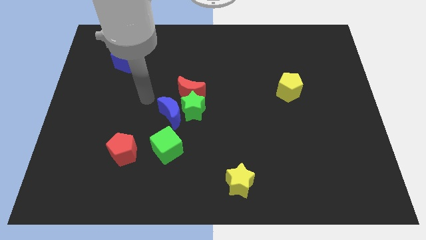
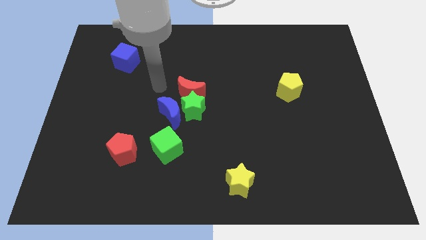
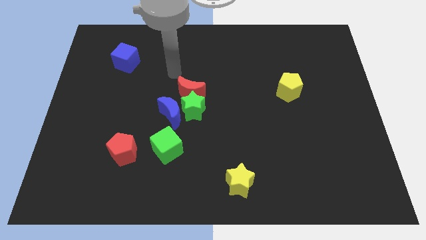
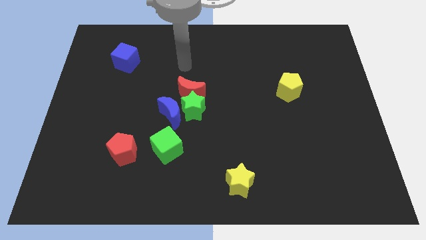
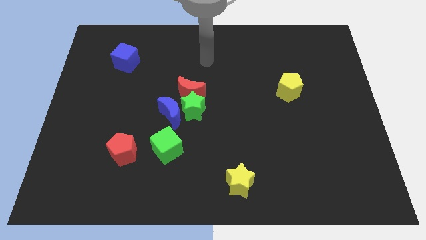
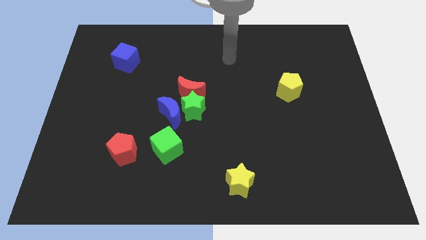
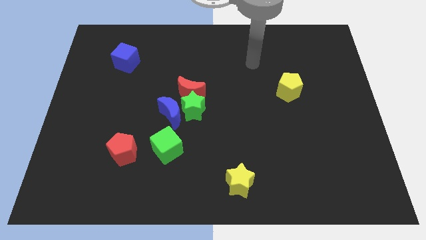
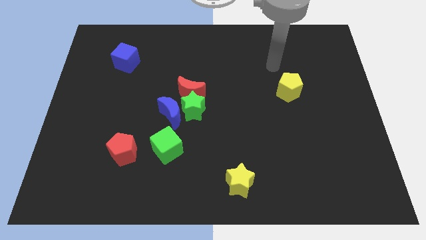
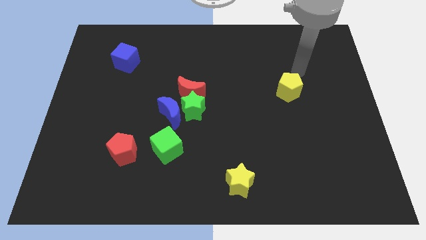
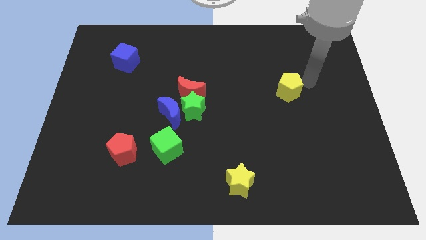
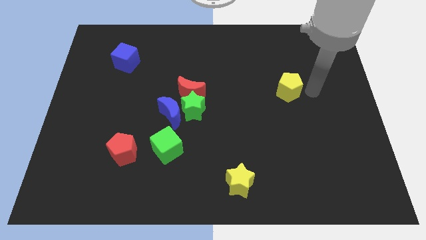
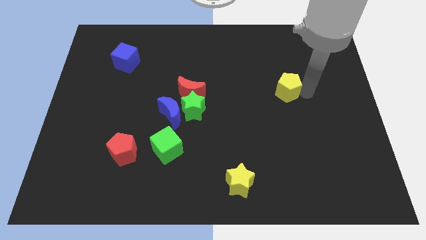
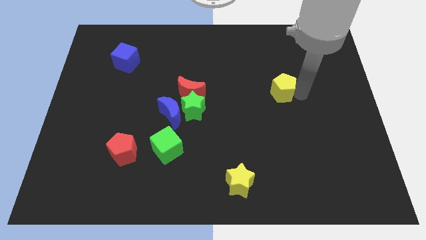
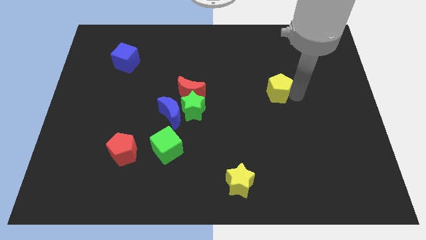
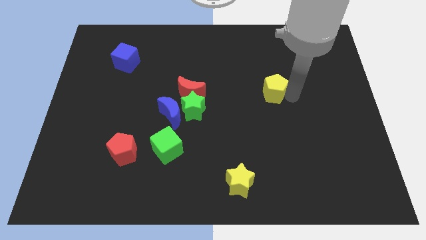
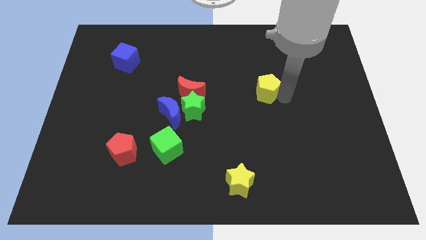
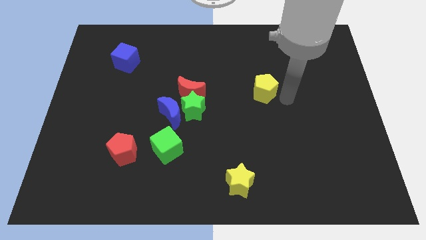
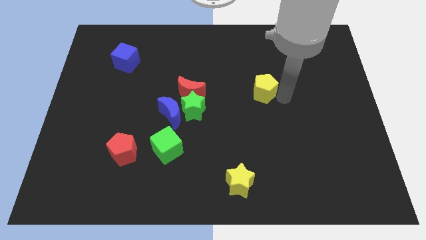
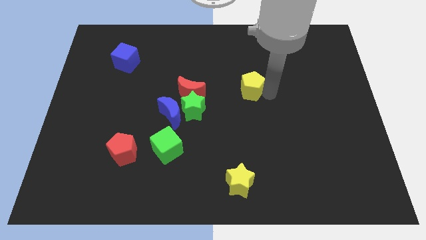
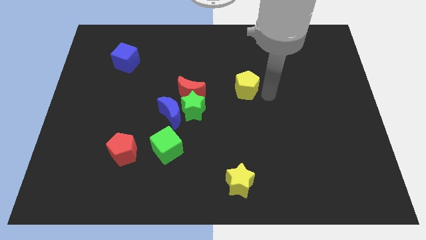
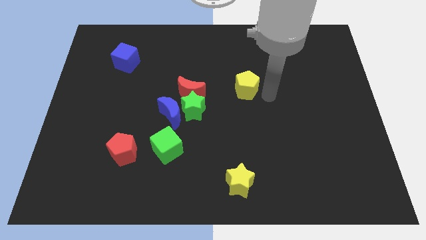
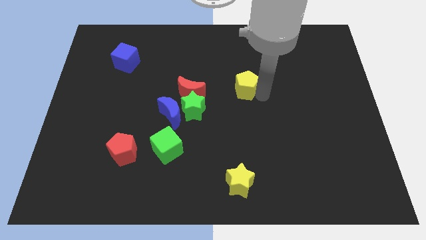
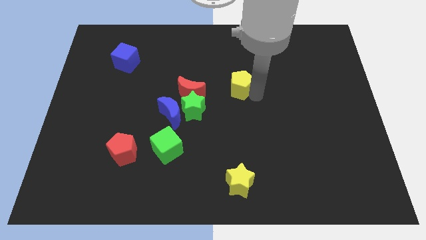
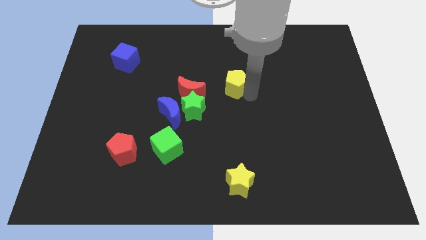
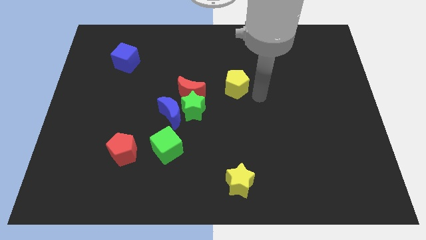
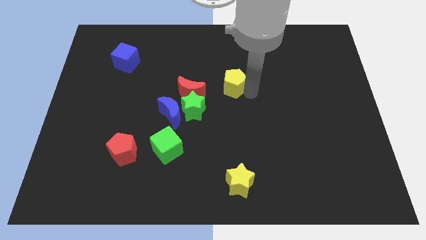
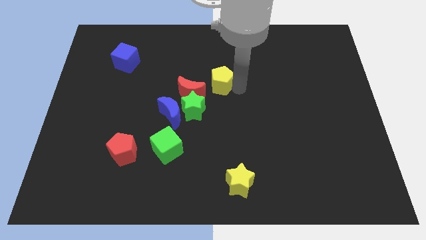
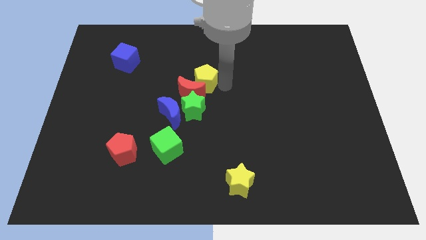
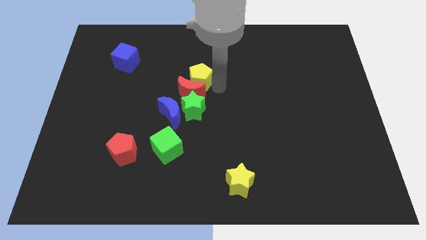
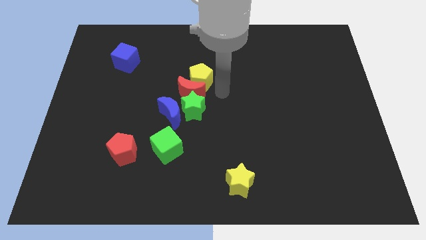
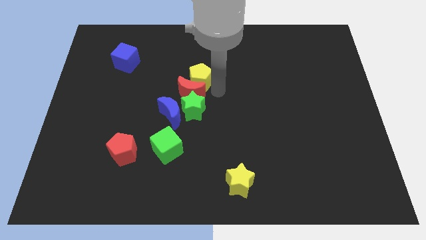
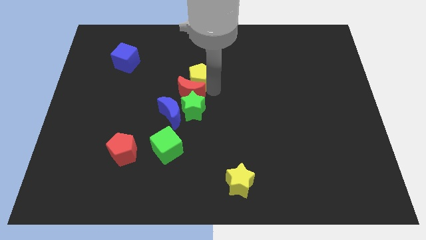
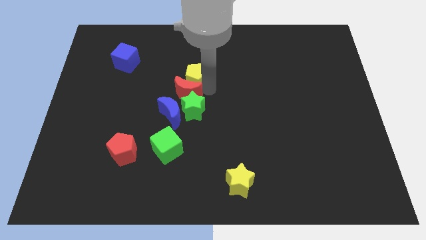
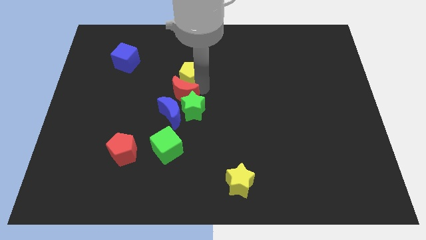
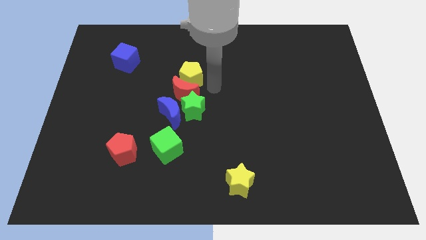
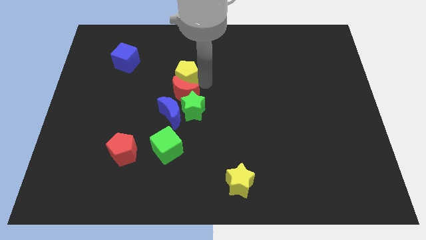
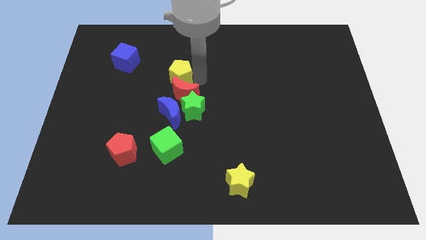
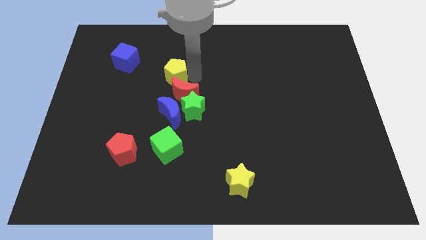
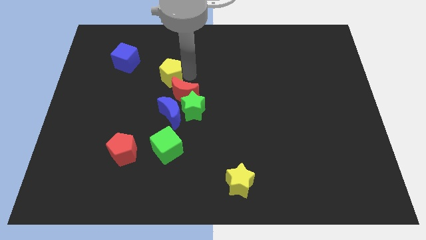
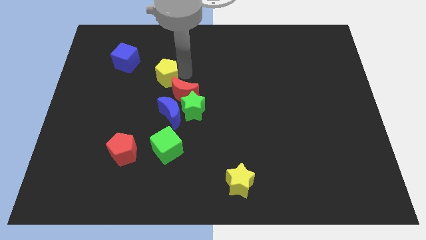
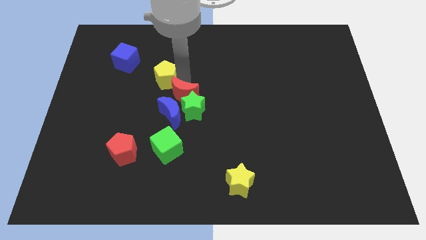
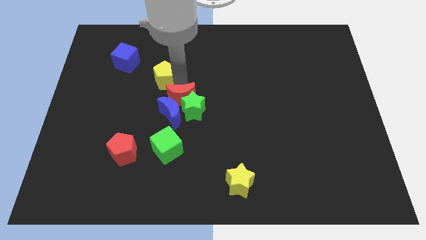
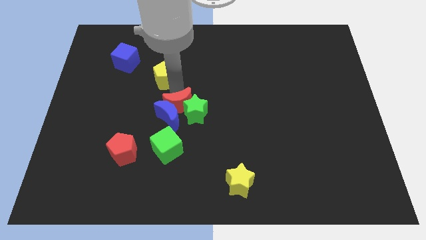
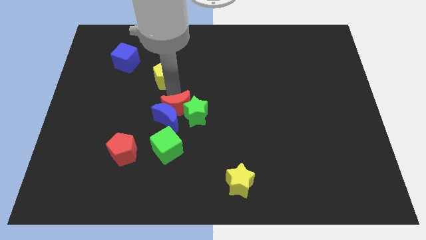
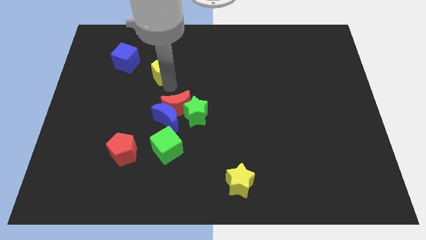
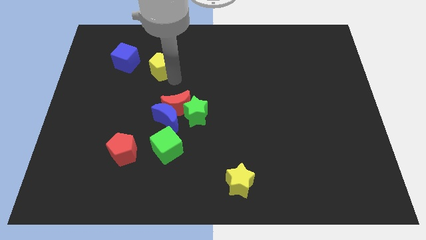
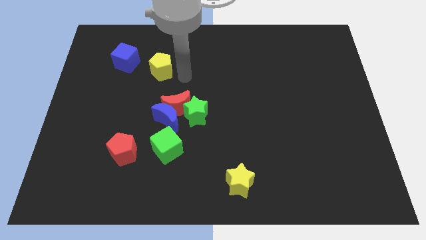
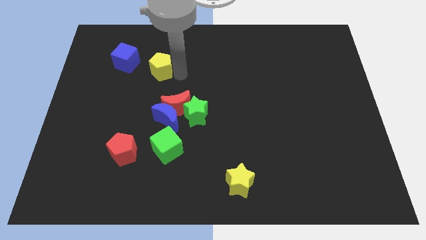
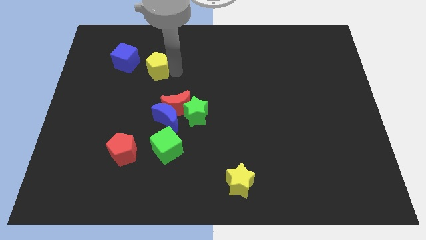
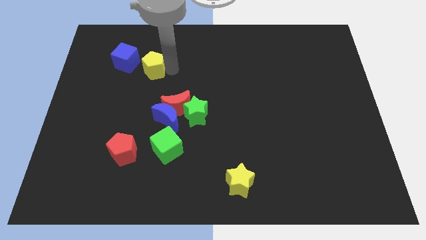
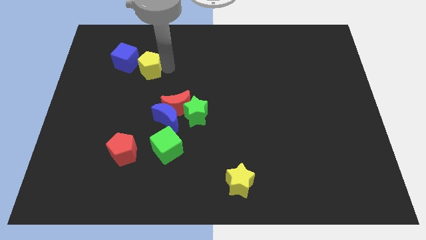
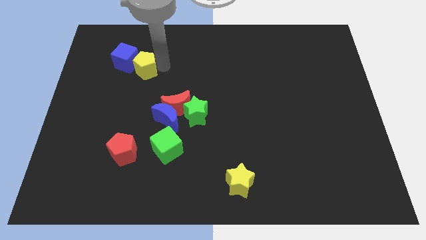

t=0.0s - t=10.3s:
push the yellow pentagon close to the blue cube

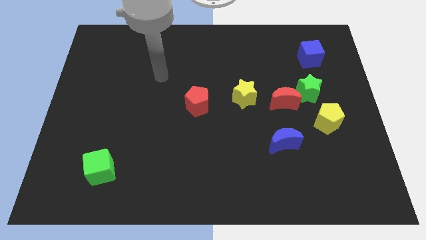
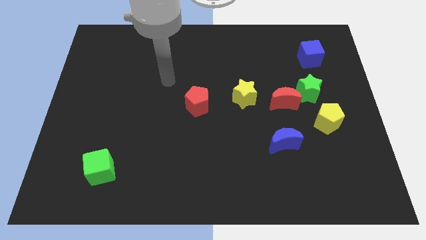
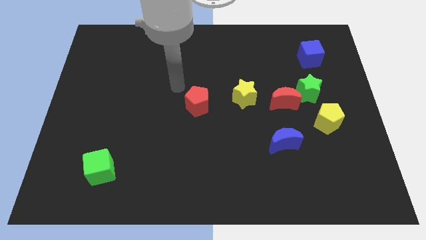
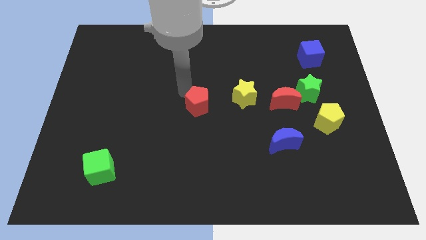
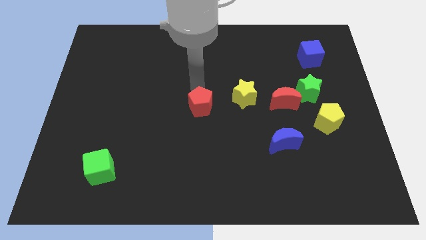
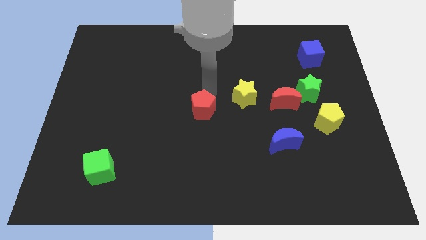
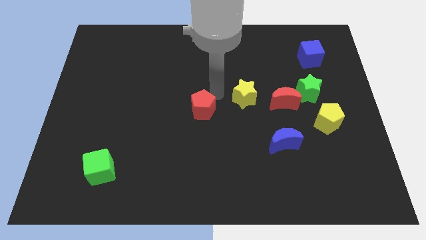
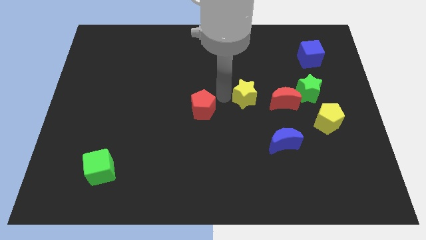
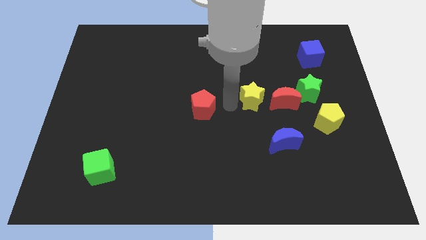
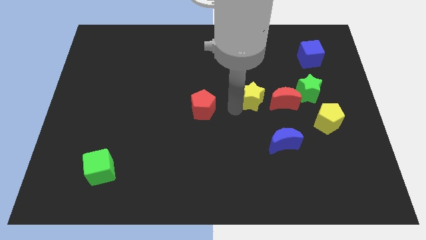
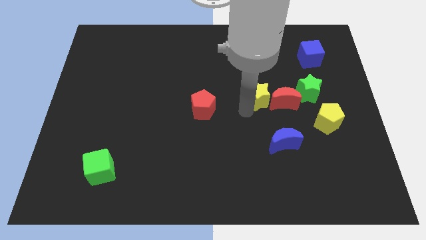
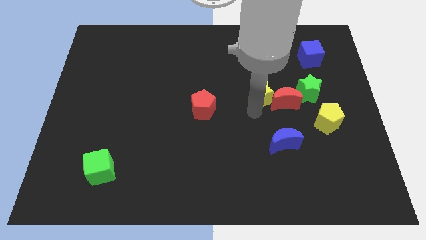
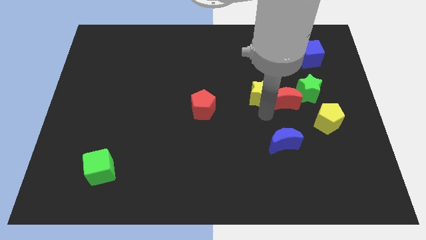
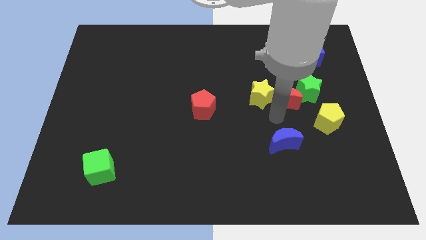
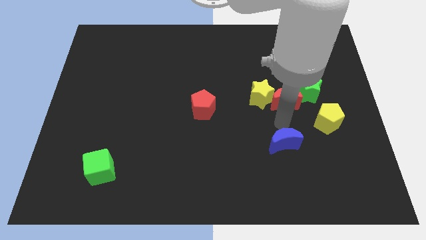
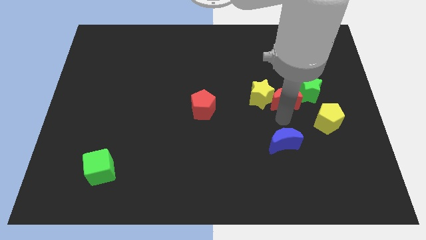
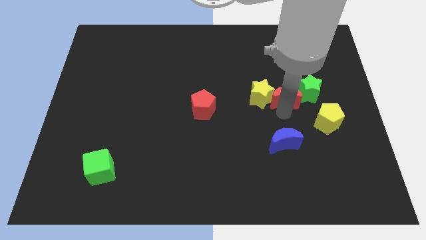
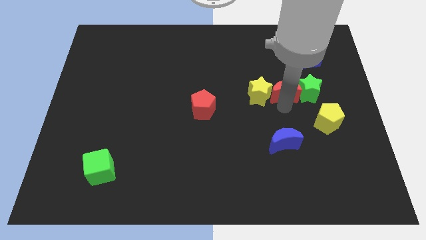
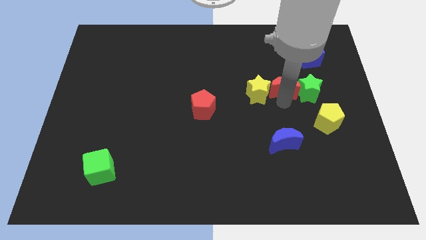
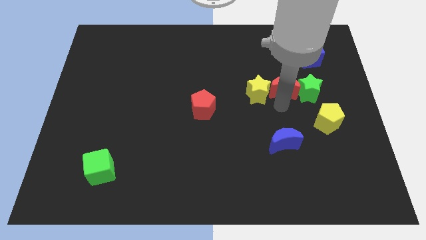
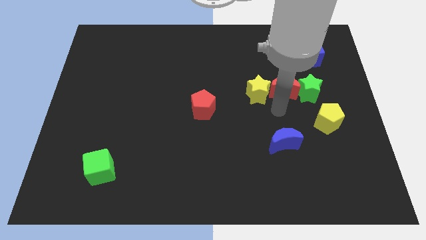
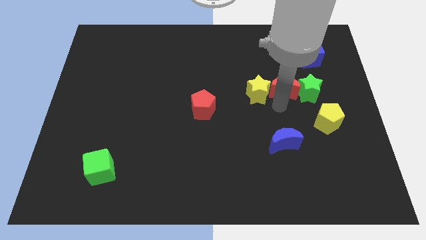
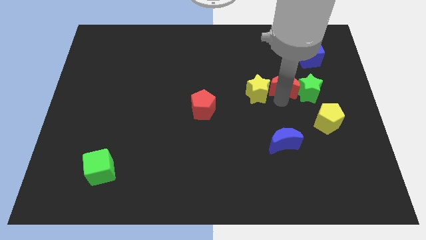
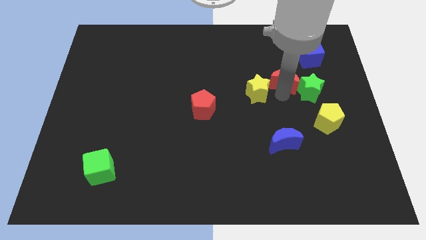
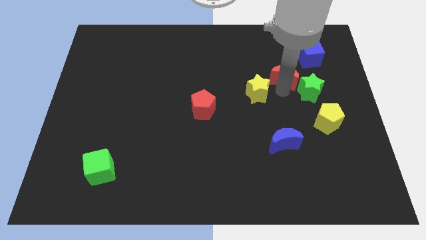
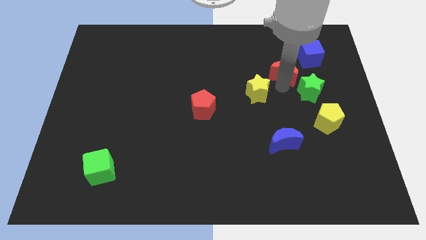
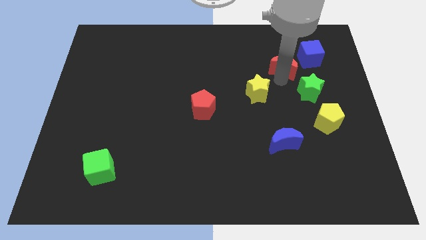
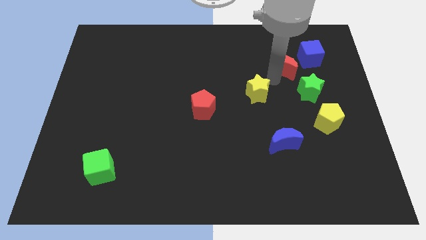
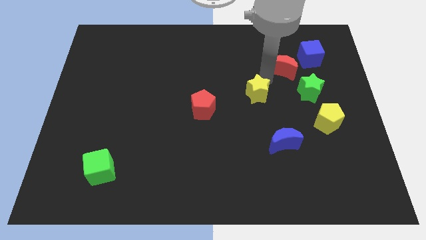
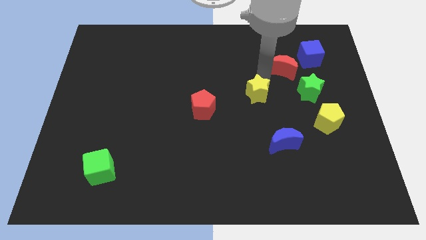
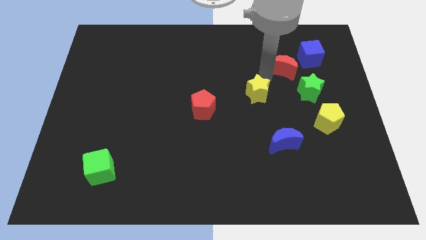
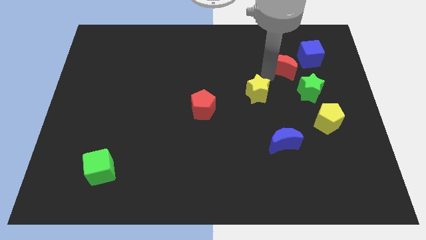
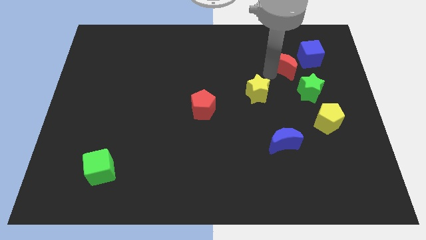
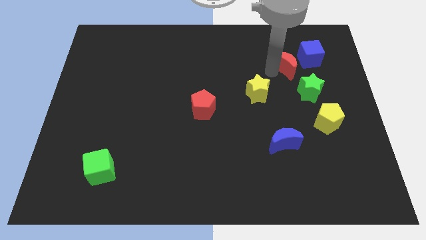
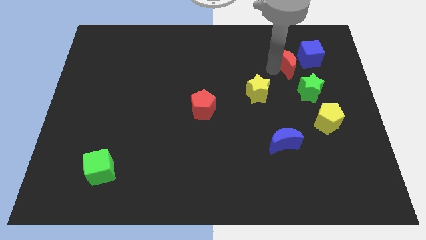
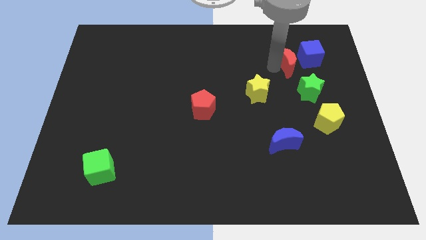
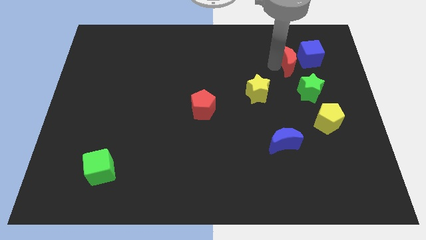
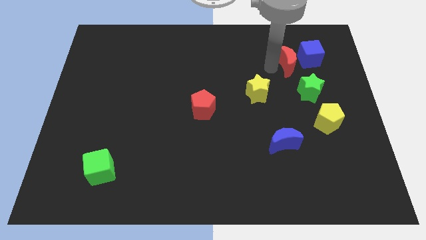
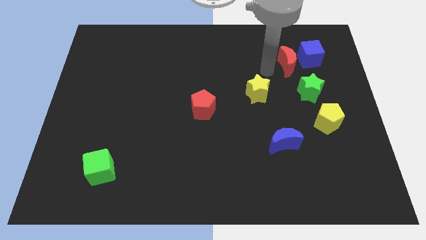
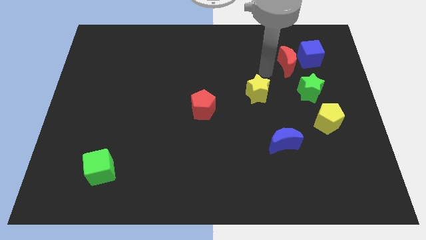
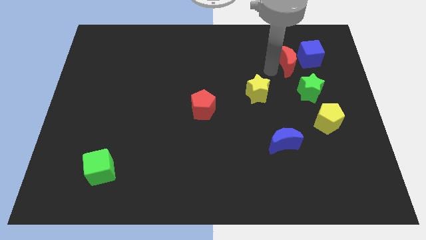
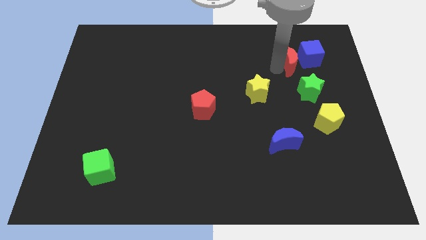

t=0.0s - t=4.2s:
move the red moon to the blue cube
